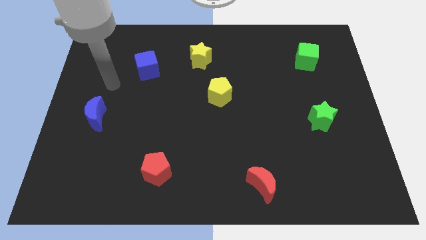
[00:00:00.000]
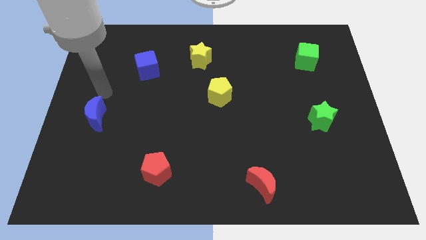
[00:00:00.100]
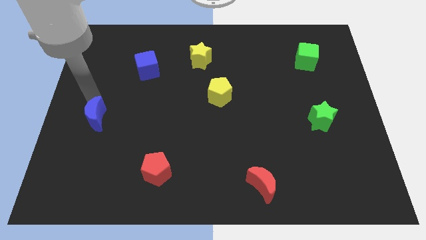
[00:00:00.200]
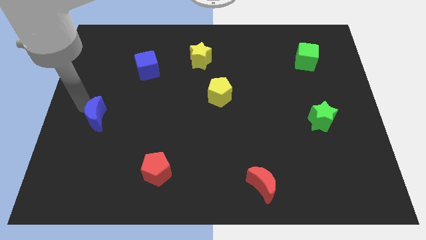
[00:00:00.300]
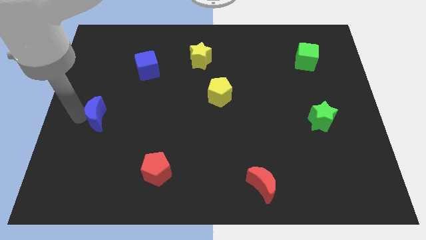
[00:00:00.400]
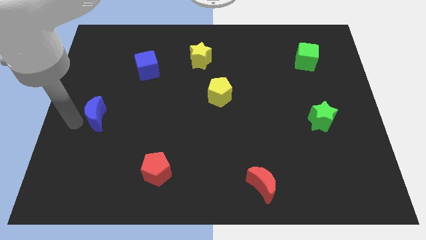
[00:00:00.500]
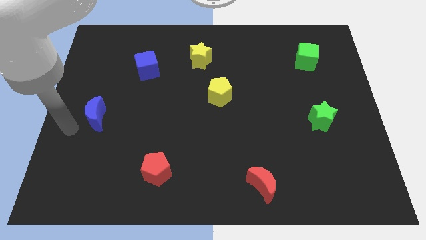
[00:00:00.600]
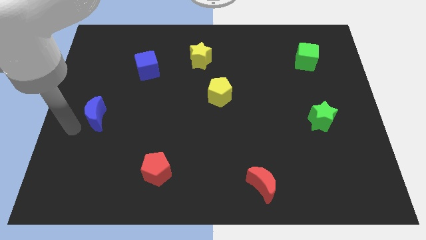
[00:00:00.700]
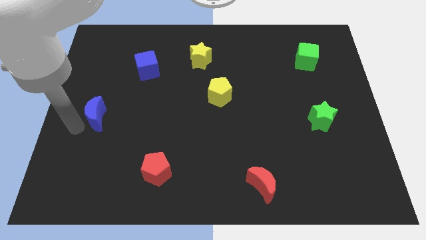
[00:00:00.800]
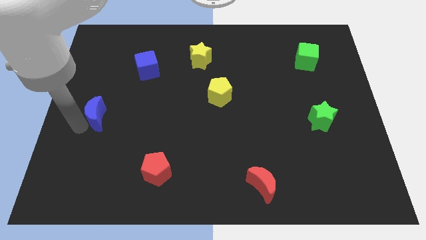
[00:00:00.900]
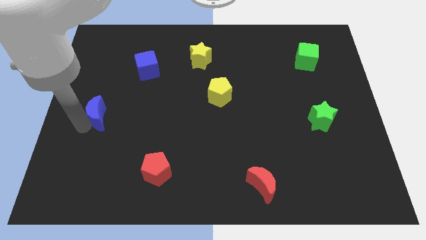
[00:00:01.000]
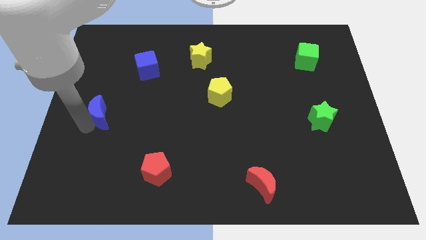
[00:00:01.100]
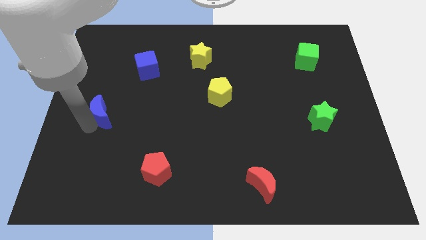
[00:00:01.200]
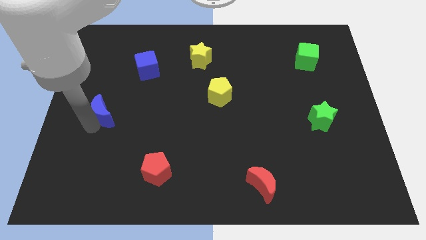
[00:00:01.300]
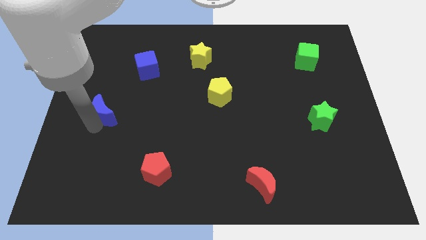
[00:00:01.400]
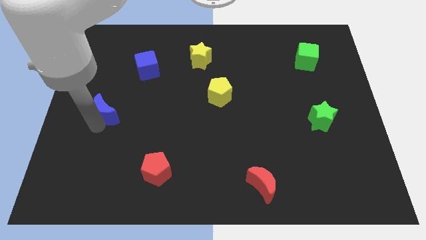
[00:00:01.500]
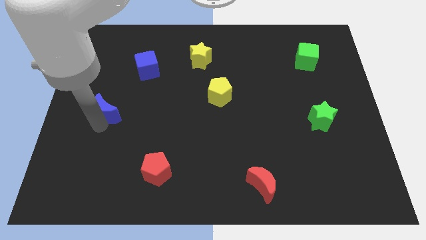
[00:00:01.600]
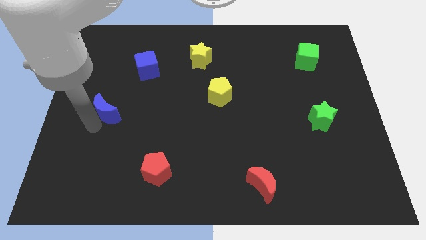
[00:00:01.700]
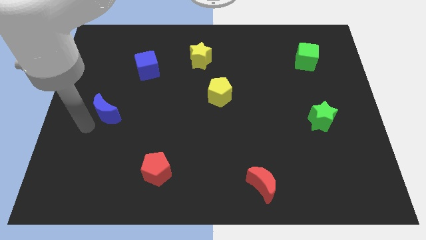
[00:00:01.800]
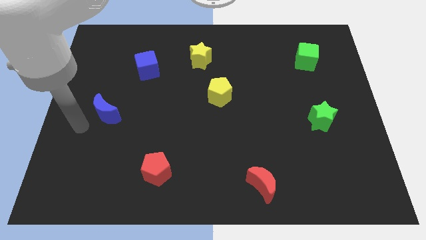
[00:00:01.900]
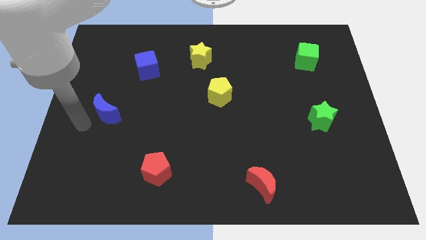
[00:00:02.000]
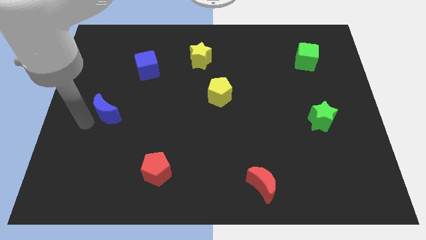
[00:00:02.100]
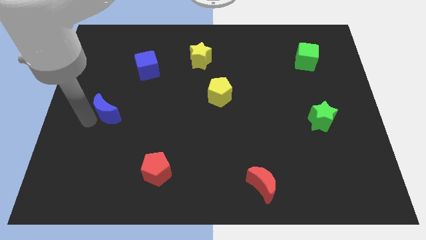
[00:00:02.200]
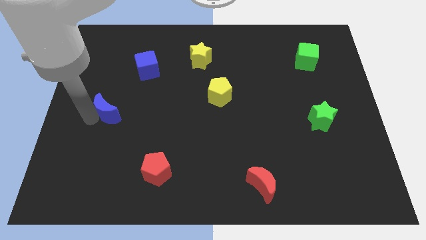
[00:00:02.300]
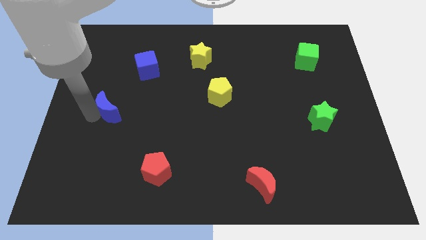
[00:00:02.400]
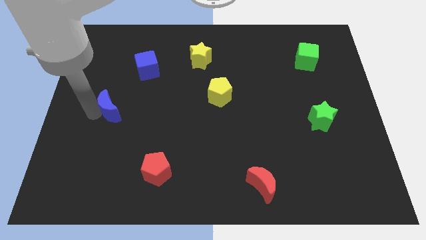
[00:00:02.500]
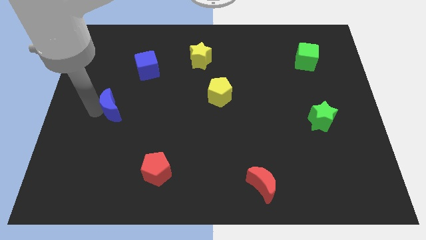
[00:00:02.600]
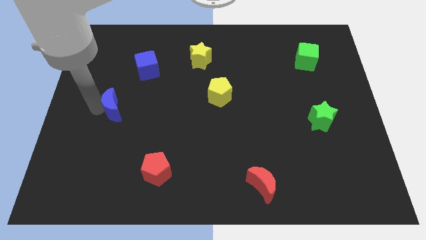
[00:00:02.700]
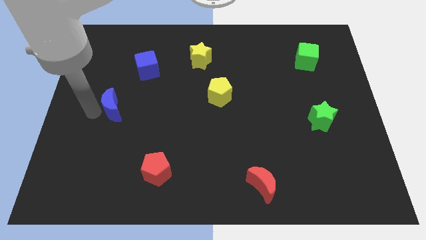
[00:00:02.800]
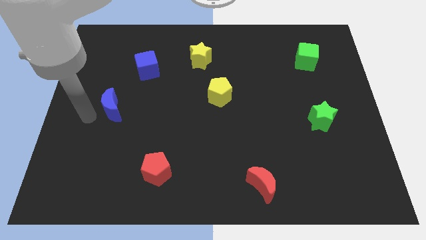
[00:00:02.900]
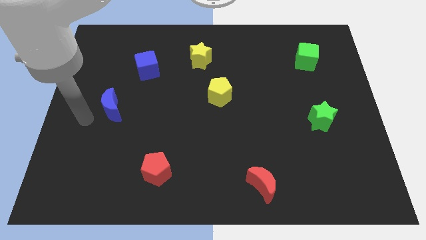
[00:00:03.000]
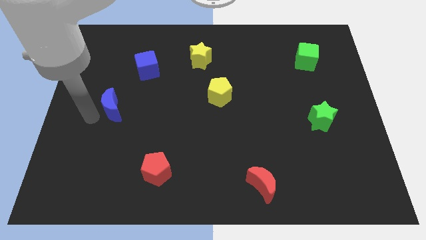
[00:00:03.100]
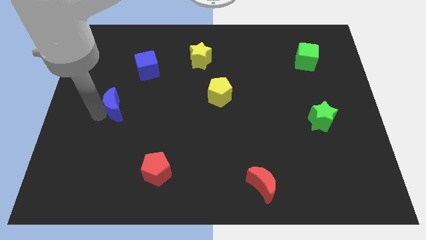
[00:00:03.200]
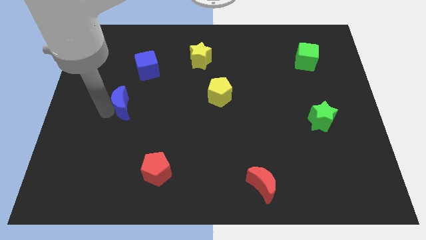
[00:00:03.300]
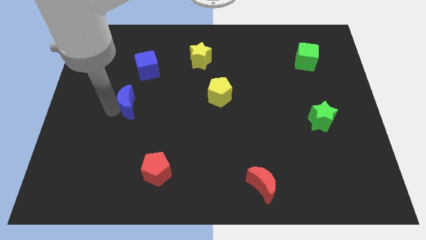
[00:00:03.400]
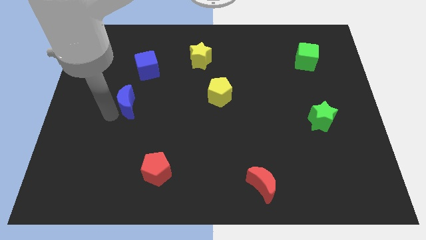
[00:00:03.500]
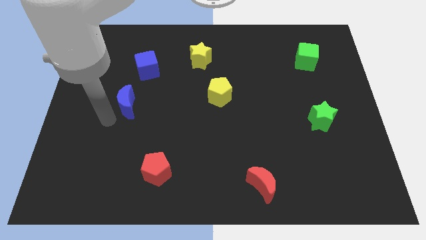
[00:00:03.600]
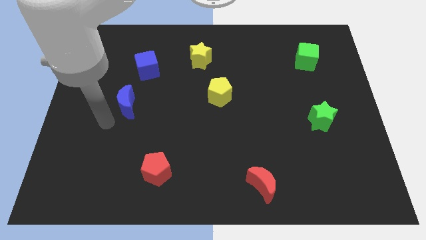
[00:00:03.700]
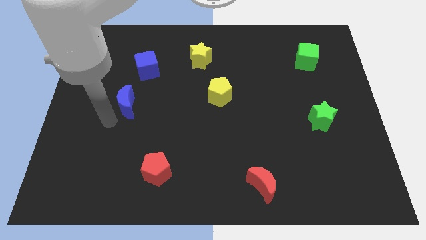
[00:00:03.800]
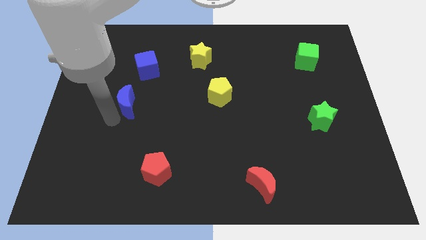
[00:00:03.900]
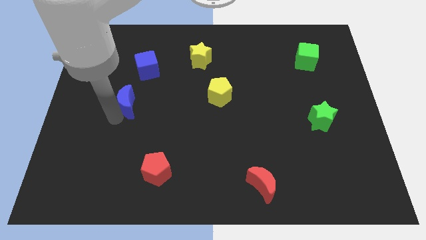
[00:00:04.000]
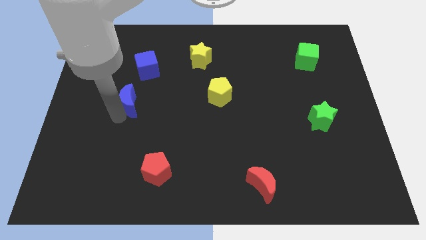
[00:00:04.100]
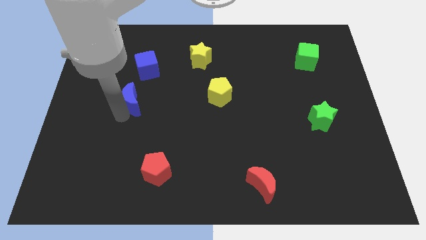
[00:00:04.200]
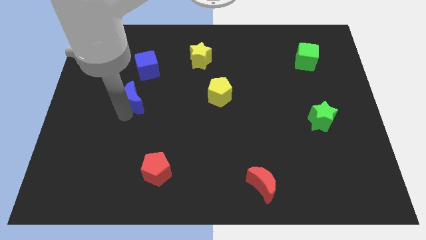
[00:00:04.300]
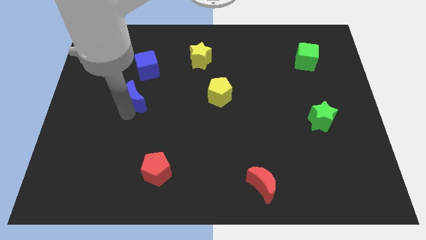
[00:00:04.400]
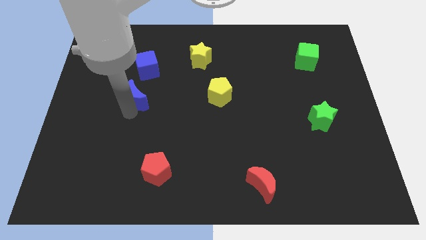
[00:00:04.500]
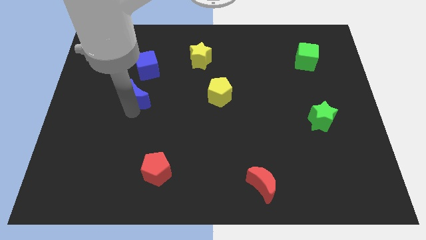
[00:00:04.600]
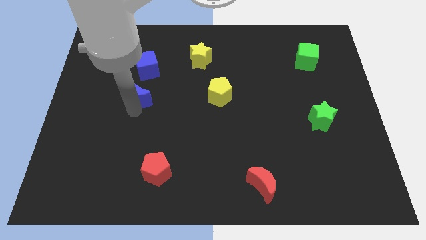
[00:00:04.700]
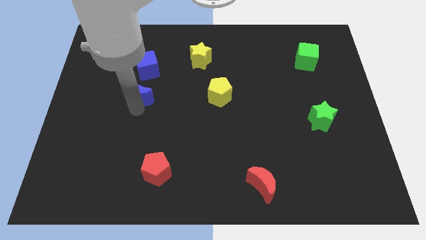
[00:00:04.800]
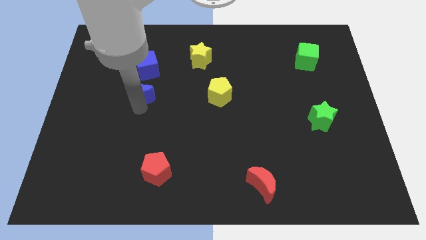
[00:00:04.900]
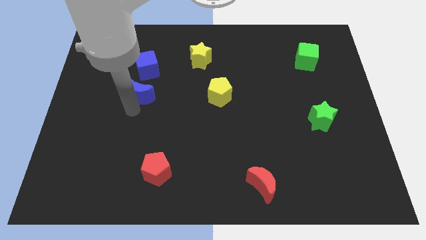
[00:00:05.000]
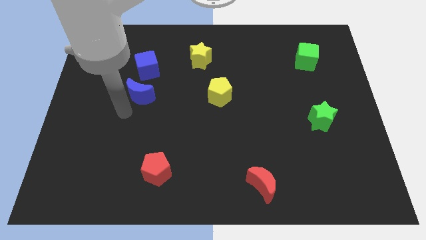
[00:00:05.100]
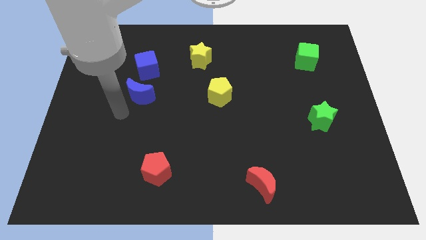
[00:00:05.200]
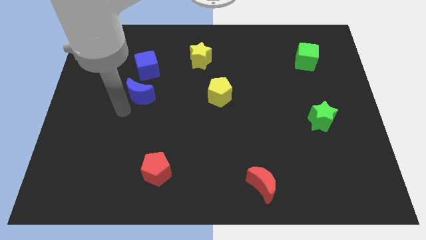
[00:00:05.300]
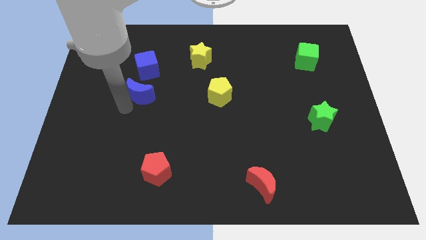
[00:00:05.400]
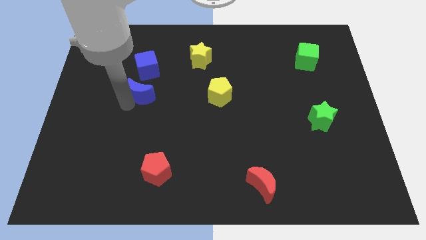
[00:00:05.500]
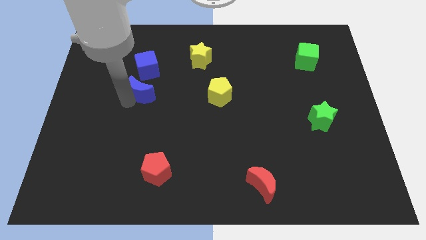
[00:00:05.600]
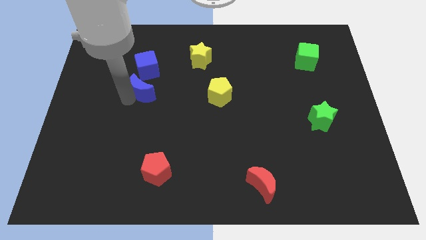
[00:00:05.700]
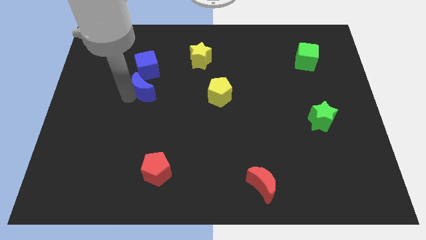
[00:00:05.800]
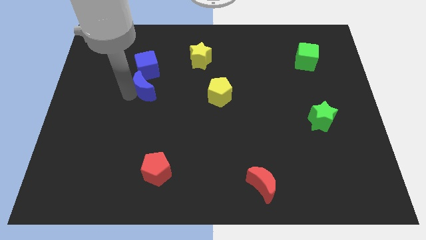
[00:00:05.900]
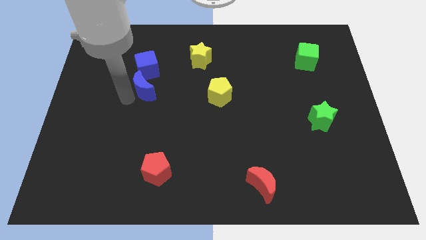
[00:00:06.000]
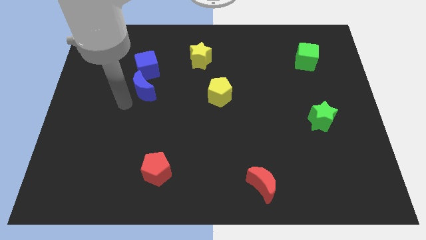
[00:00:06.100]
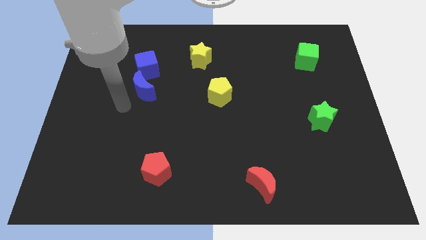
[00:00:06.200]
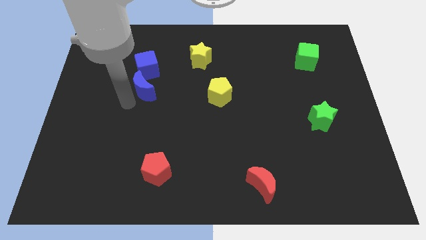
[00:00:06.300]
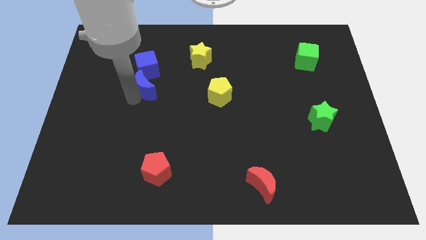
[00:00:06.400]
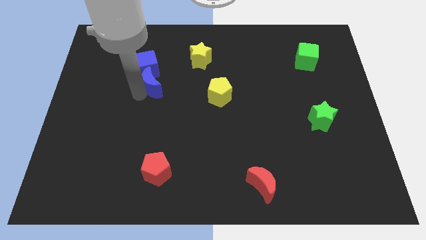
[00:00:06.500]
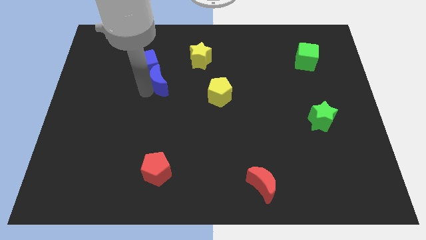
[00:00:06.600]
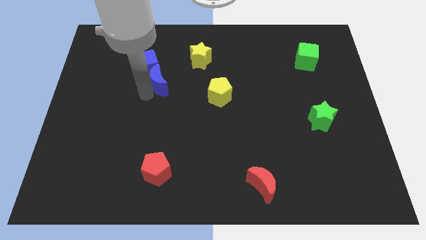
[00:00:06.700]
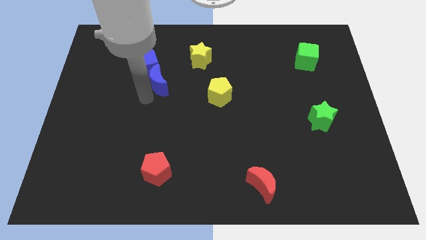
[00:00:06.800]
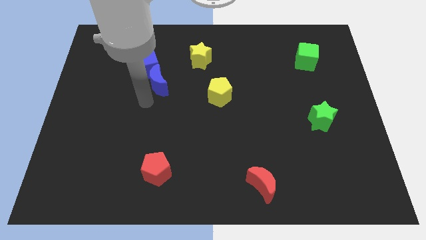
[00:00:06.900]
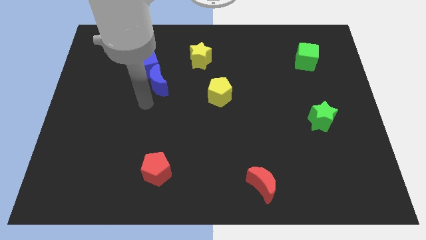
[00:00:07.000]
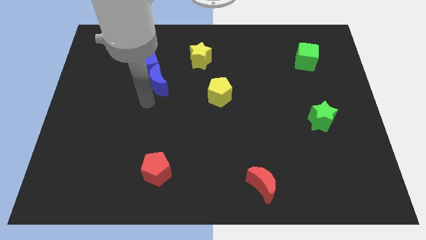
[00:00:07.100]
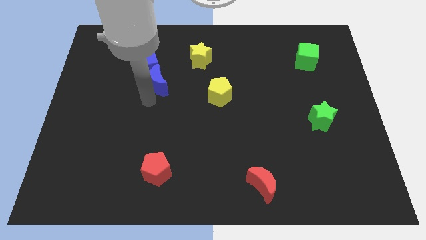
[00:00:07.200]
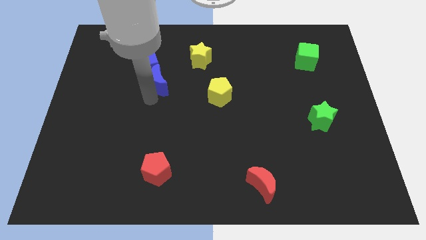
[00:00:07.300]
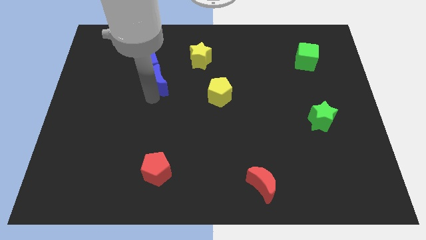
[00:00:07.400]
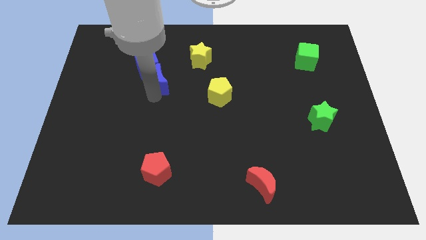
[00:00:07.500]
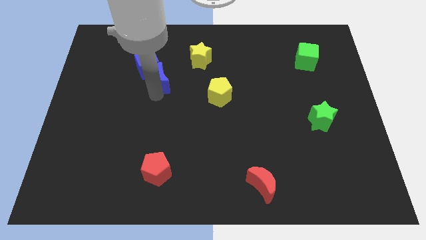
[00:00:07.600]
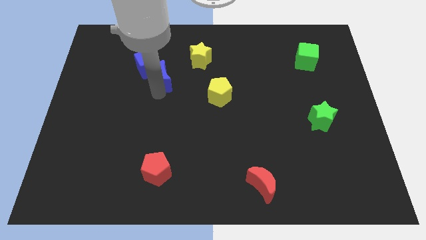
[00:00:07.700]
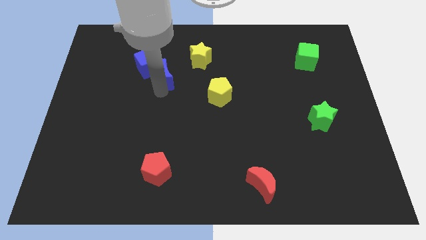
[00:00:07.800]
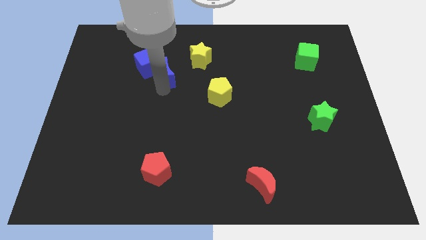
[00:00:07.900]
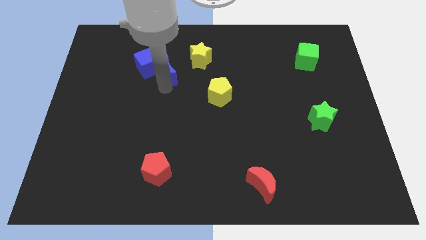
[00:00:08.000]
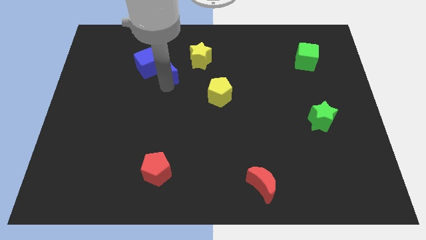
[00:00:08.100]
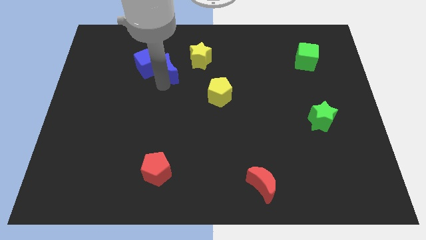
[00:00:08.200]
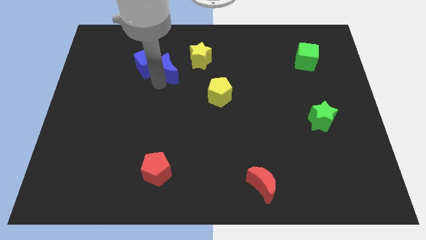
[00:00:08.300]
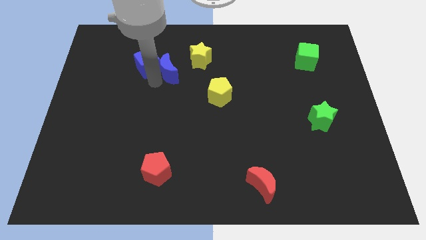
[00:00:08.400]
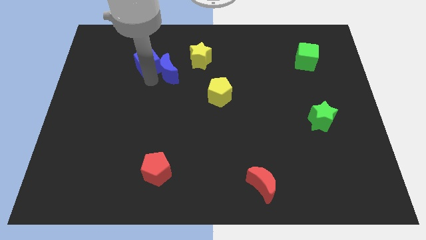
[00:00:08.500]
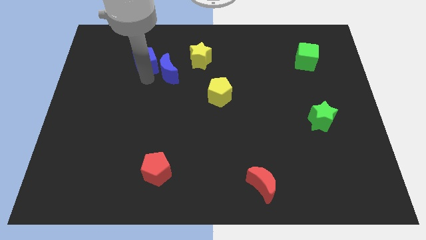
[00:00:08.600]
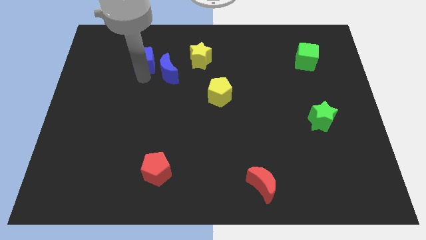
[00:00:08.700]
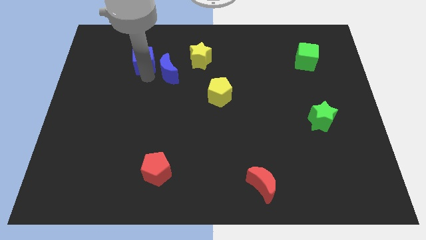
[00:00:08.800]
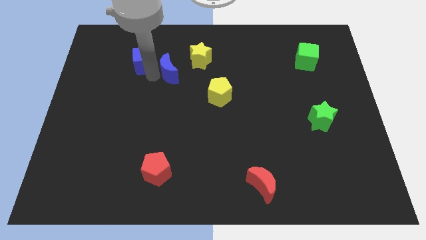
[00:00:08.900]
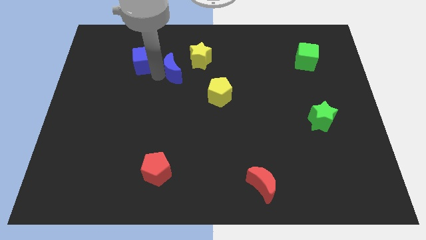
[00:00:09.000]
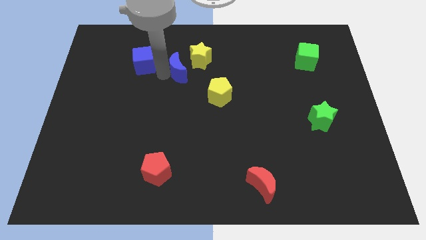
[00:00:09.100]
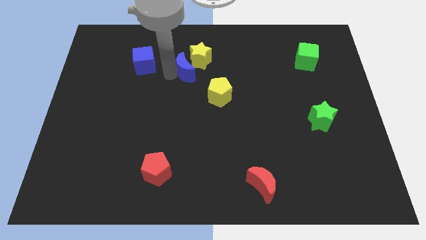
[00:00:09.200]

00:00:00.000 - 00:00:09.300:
slide the blue moon towards the yellow star
